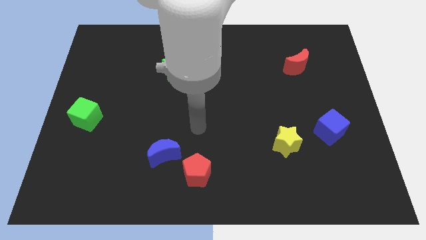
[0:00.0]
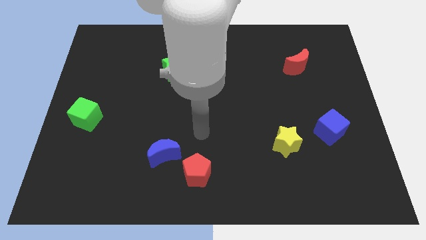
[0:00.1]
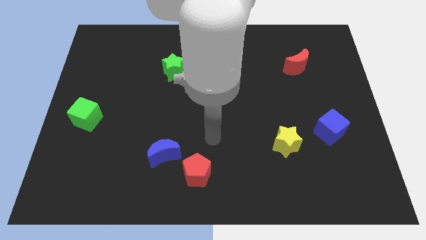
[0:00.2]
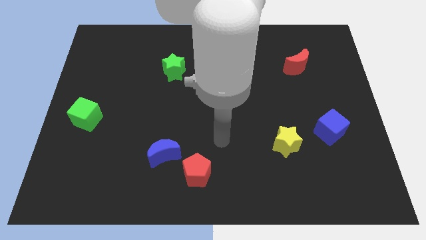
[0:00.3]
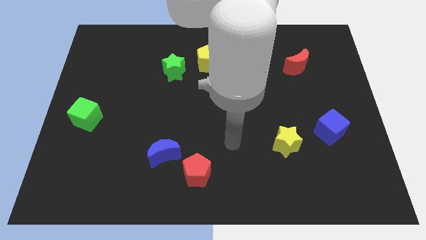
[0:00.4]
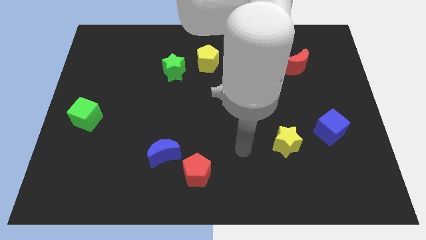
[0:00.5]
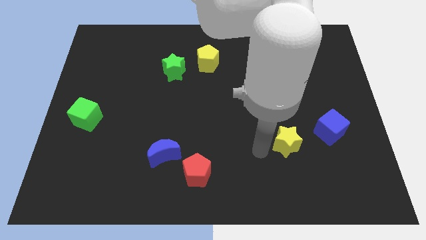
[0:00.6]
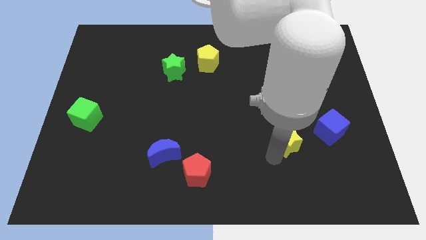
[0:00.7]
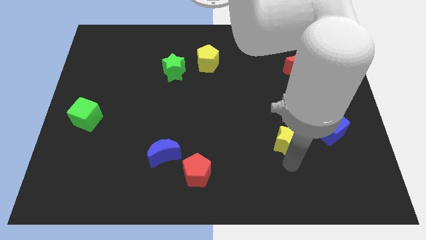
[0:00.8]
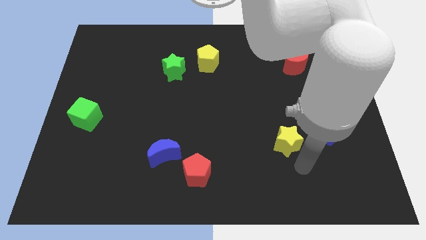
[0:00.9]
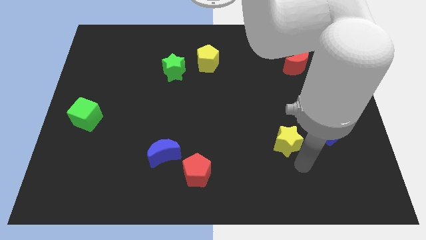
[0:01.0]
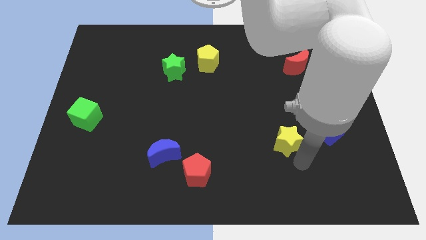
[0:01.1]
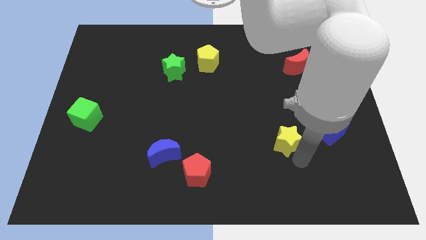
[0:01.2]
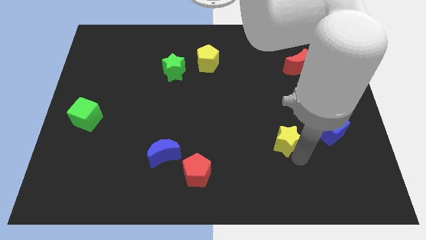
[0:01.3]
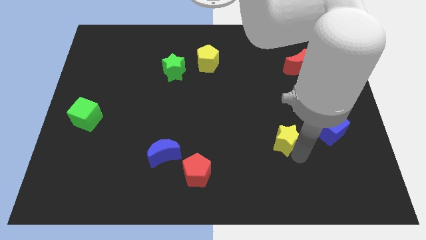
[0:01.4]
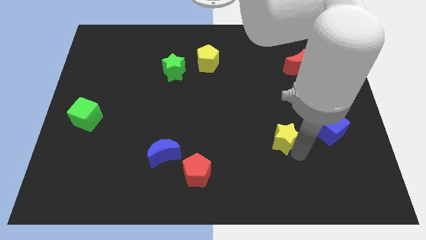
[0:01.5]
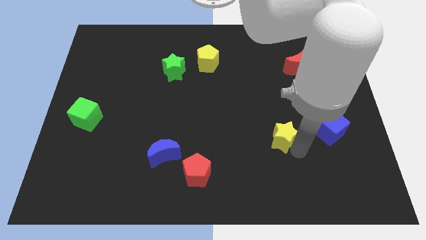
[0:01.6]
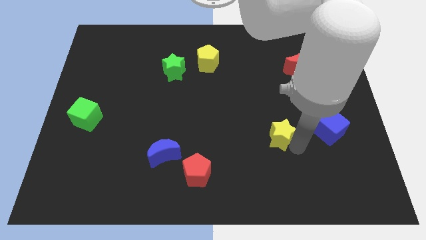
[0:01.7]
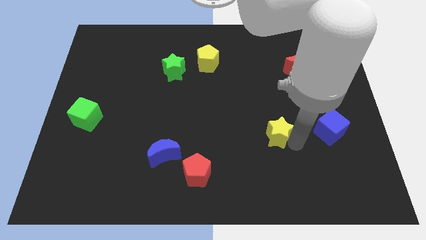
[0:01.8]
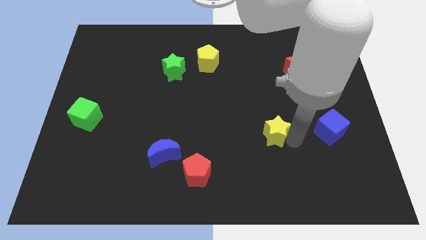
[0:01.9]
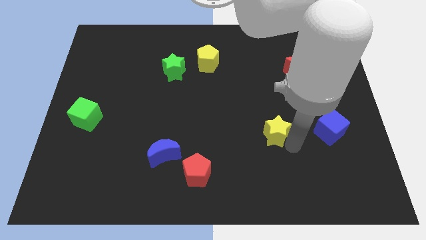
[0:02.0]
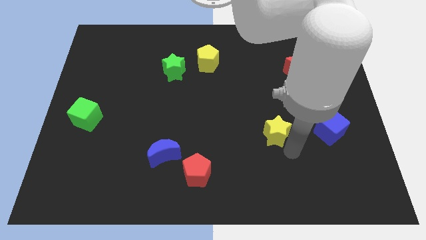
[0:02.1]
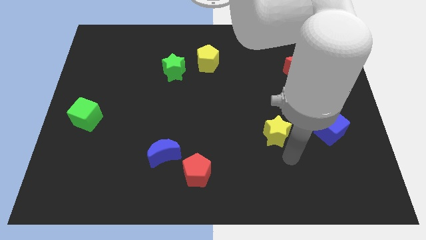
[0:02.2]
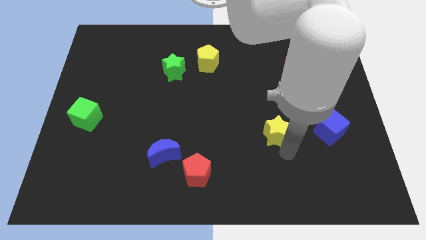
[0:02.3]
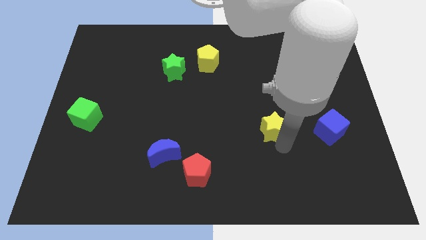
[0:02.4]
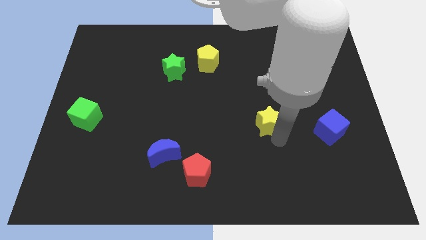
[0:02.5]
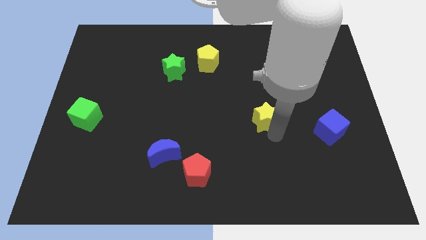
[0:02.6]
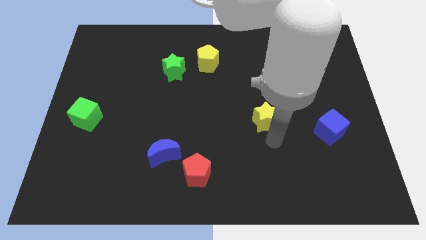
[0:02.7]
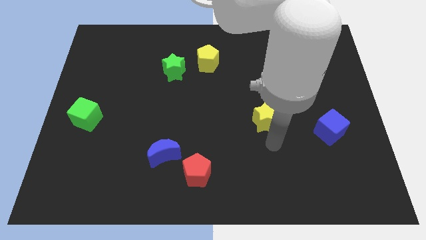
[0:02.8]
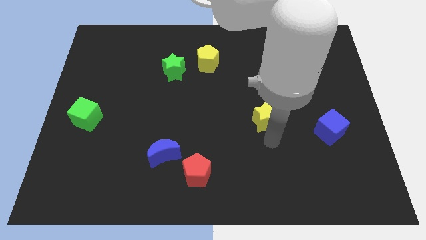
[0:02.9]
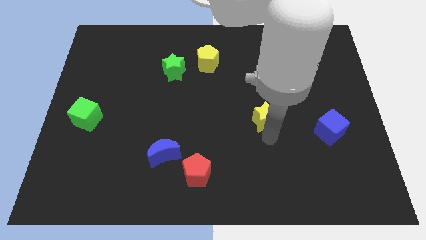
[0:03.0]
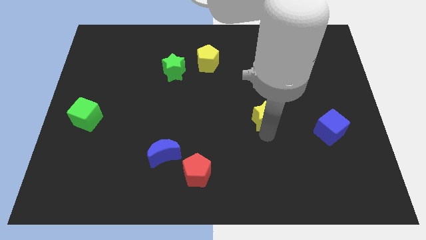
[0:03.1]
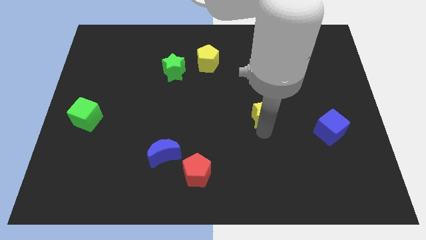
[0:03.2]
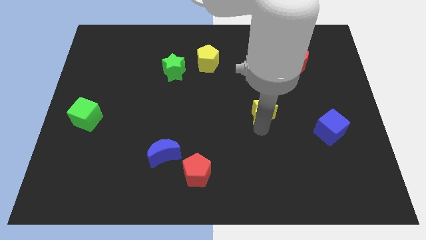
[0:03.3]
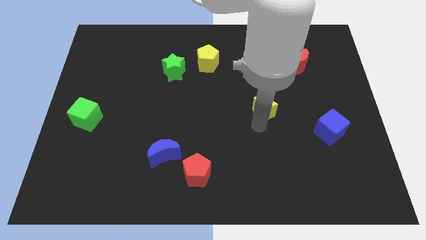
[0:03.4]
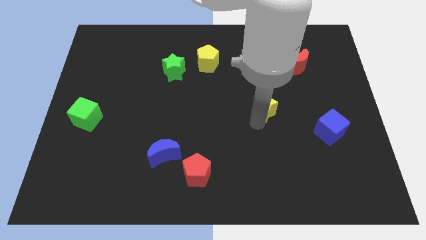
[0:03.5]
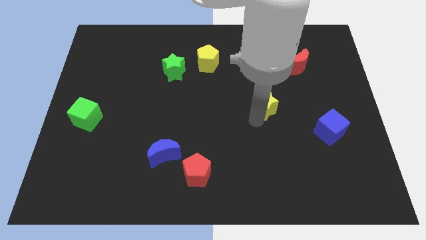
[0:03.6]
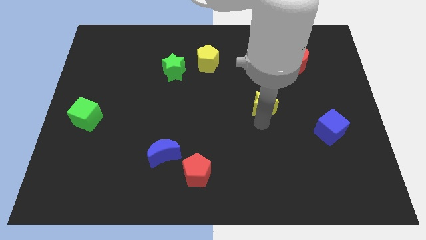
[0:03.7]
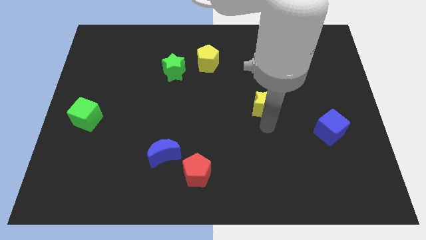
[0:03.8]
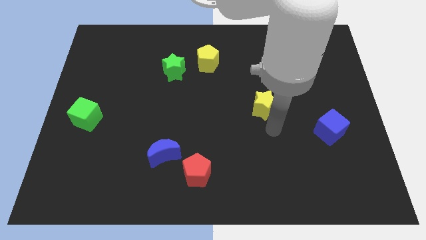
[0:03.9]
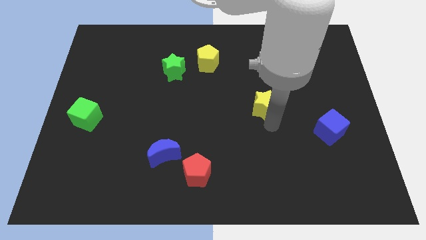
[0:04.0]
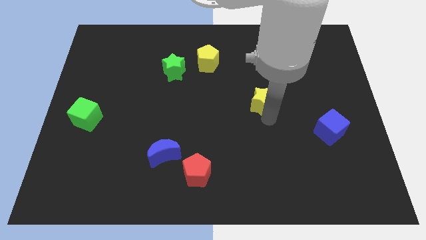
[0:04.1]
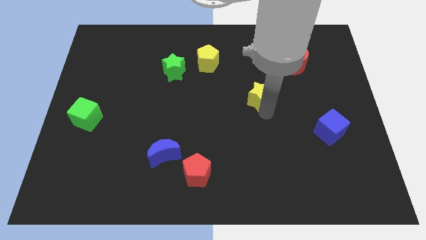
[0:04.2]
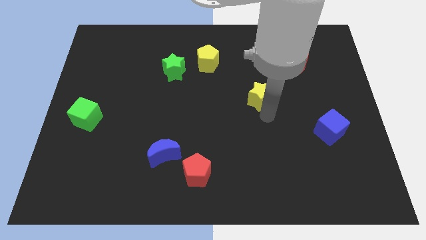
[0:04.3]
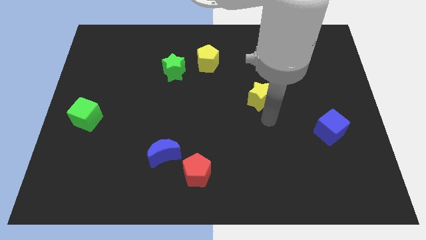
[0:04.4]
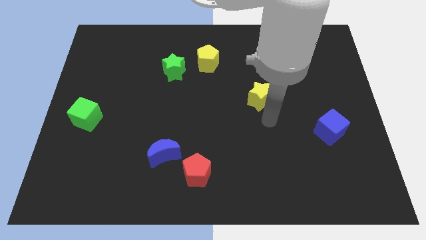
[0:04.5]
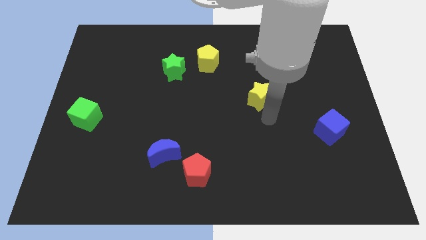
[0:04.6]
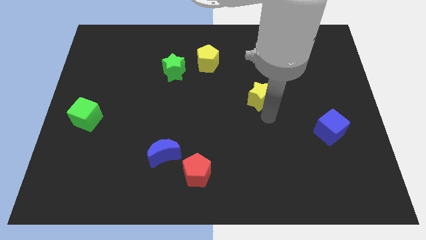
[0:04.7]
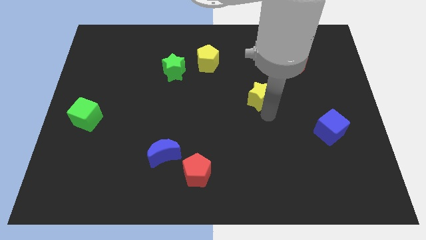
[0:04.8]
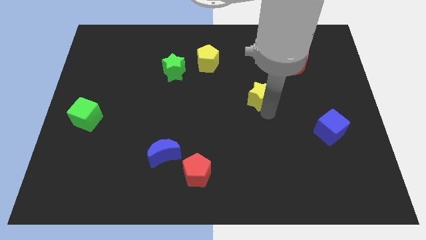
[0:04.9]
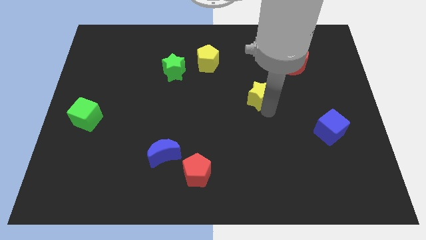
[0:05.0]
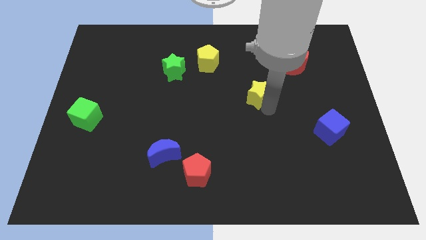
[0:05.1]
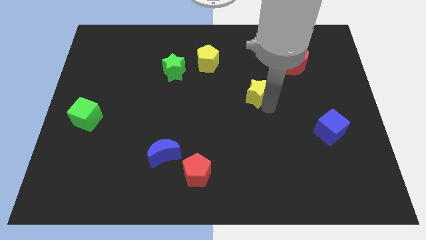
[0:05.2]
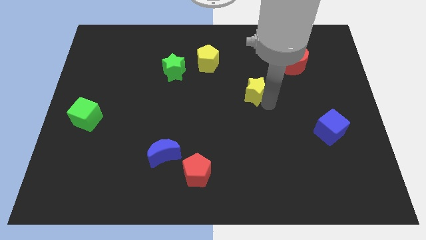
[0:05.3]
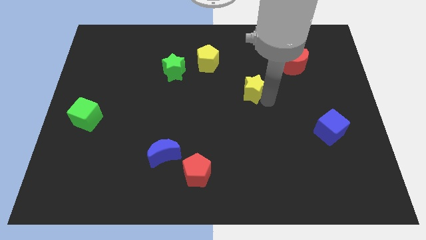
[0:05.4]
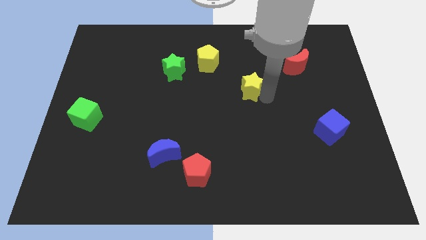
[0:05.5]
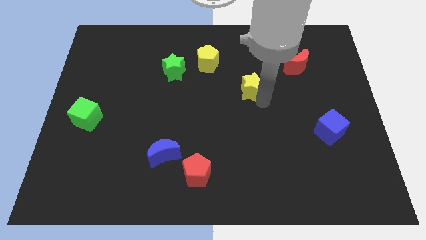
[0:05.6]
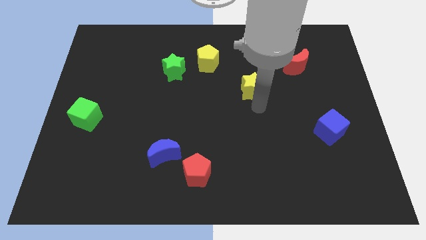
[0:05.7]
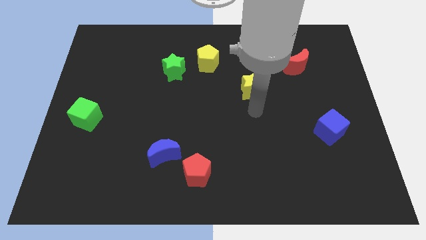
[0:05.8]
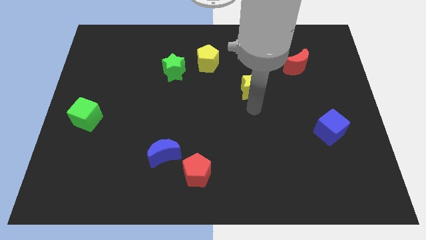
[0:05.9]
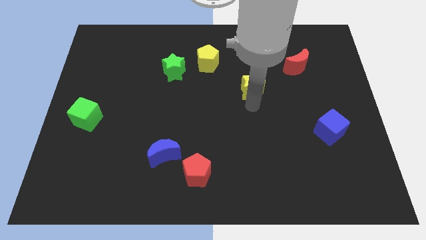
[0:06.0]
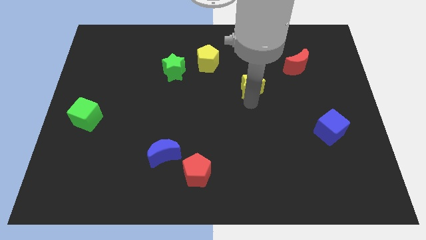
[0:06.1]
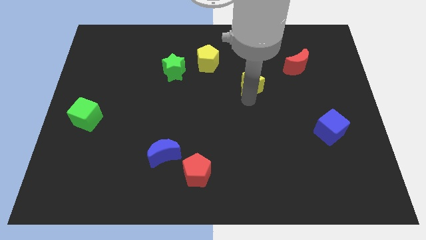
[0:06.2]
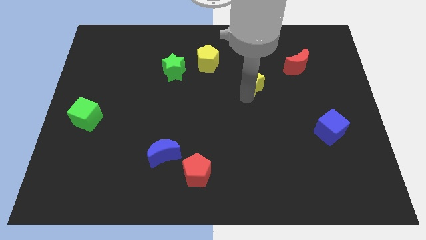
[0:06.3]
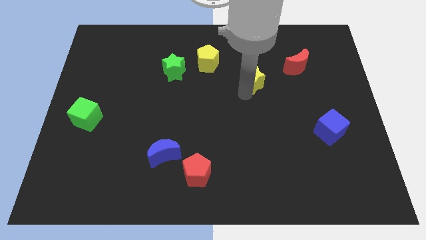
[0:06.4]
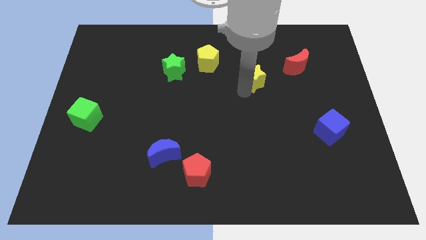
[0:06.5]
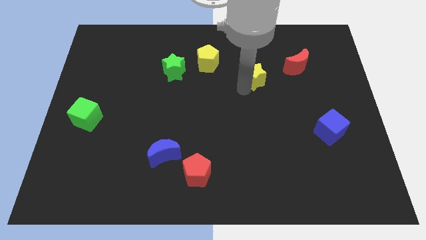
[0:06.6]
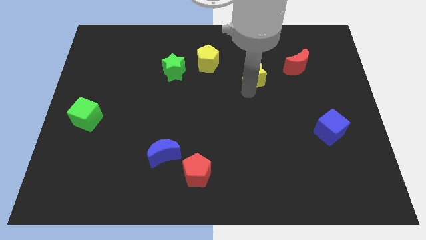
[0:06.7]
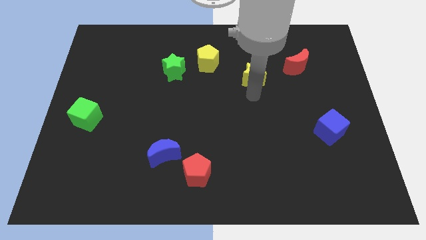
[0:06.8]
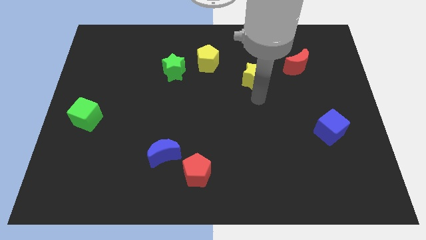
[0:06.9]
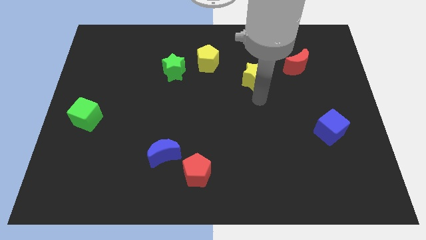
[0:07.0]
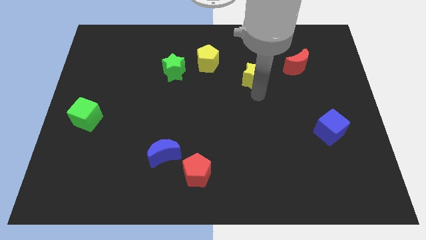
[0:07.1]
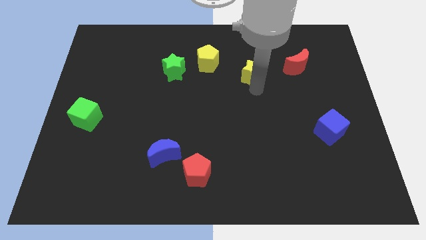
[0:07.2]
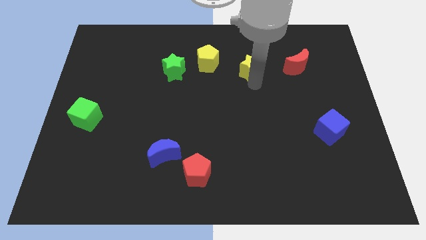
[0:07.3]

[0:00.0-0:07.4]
slide the yellow star to the right of the yellow pentagon
